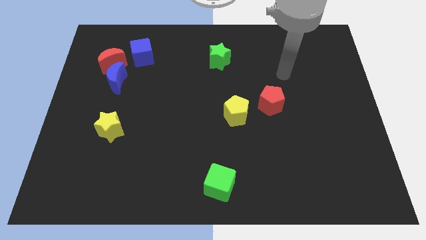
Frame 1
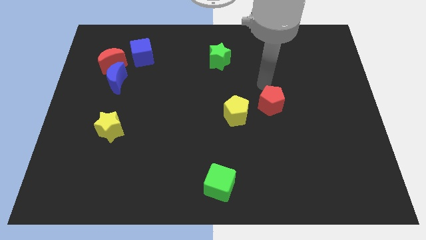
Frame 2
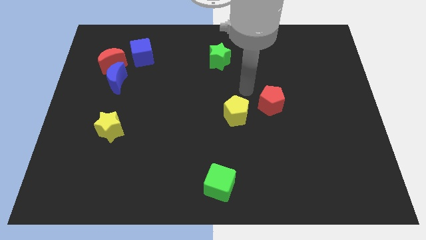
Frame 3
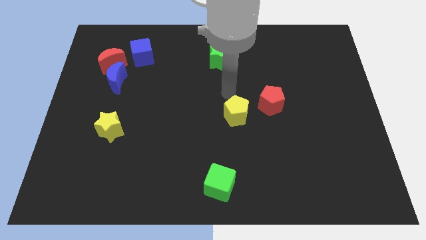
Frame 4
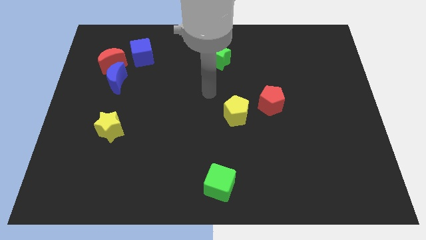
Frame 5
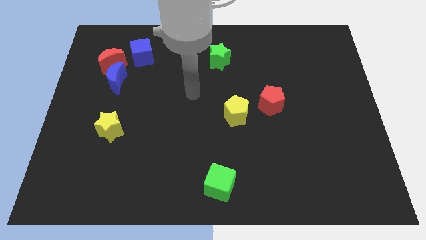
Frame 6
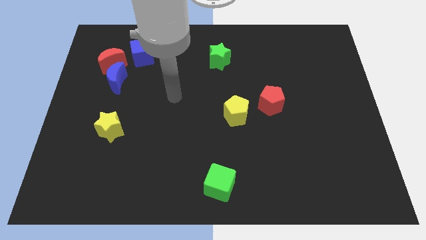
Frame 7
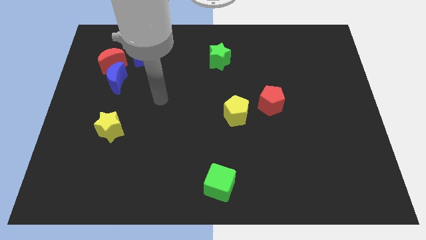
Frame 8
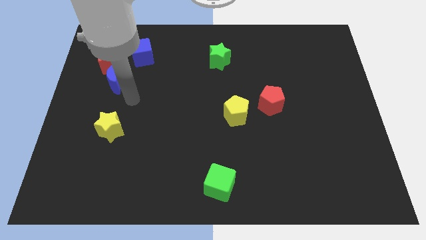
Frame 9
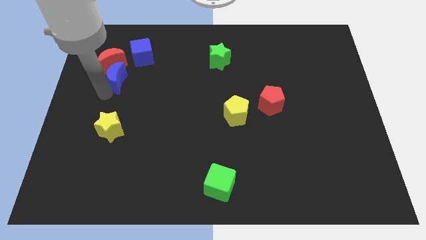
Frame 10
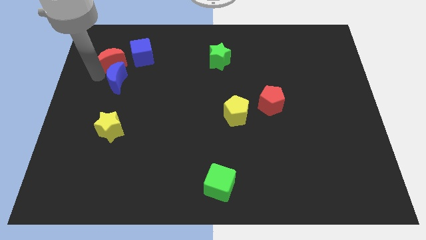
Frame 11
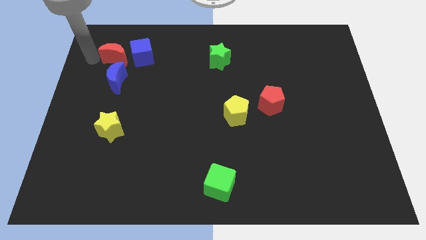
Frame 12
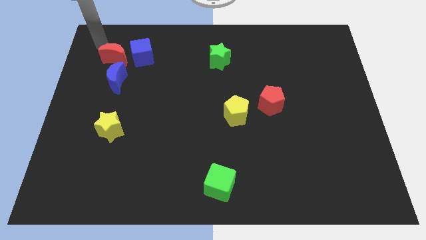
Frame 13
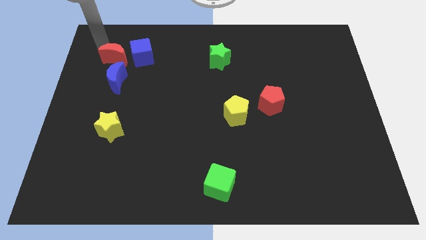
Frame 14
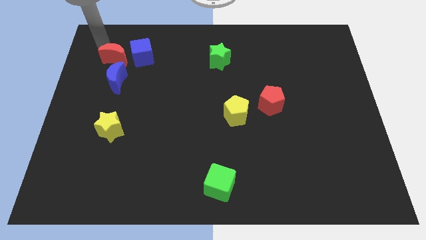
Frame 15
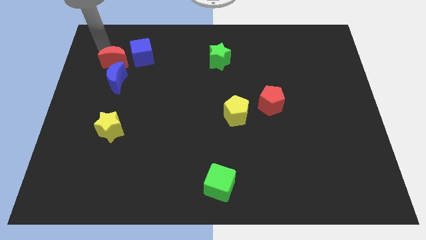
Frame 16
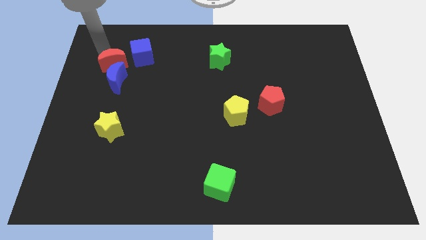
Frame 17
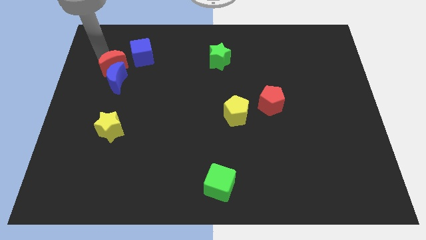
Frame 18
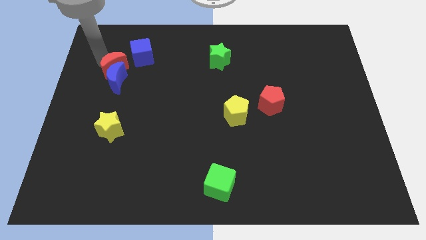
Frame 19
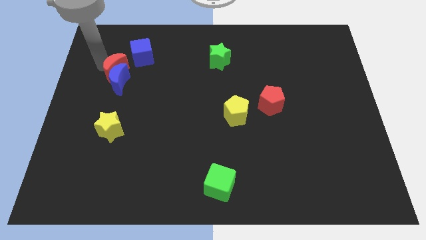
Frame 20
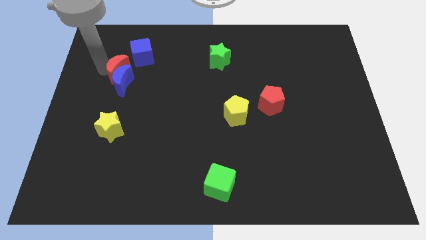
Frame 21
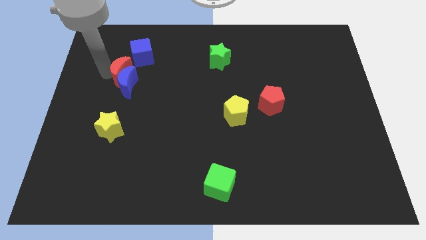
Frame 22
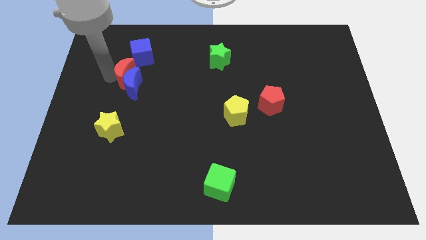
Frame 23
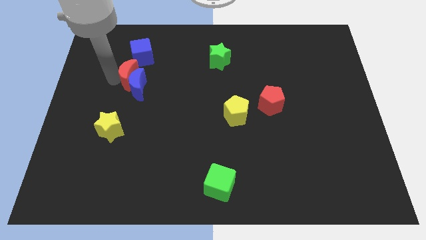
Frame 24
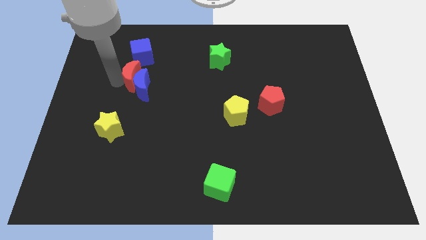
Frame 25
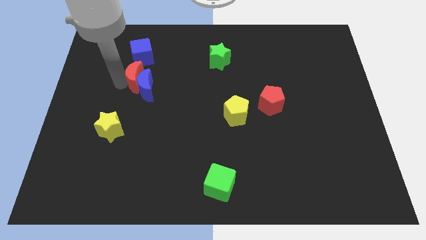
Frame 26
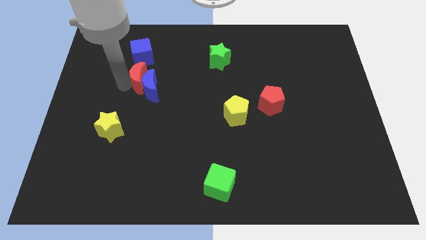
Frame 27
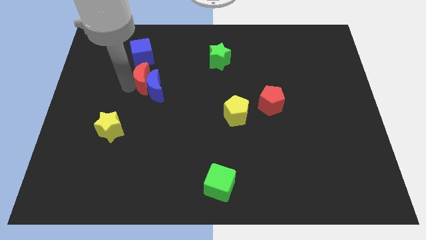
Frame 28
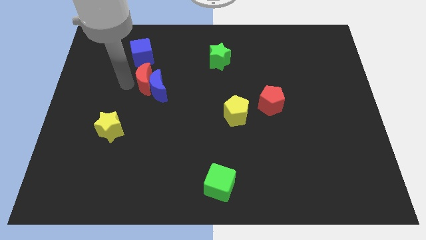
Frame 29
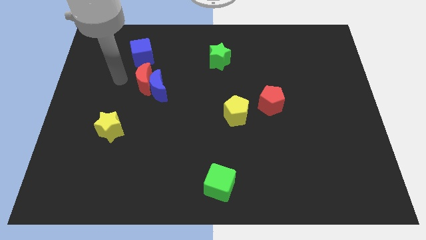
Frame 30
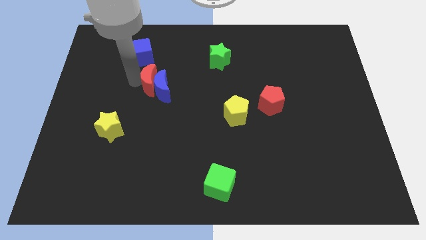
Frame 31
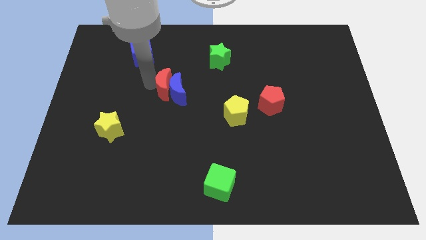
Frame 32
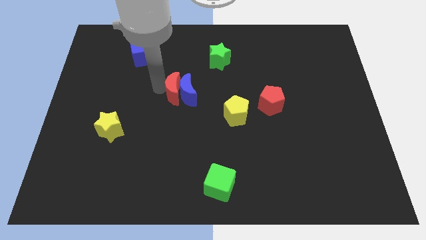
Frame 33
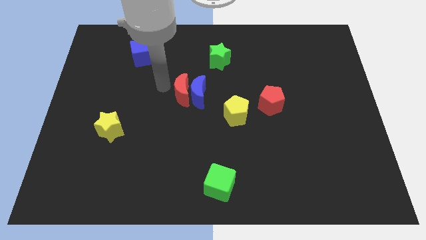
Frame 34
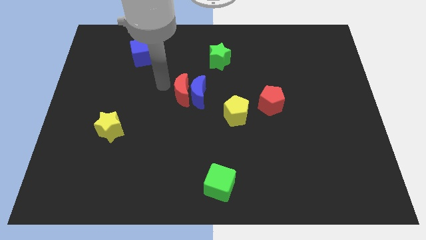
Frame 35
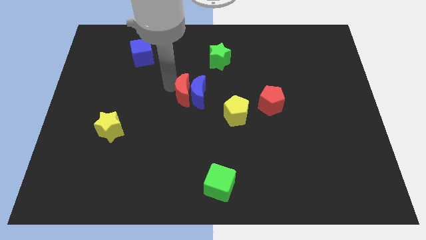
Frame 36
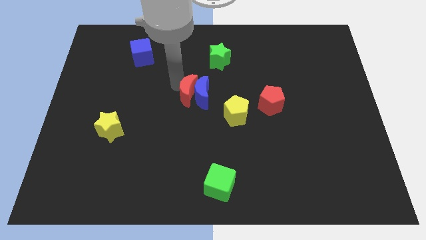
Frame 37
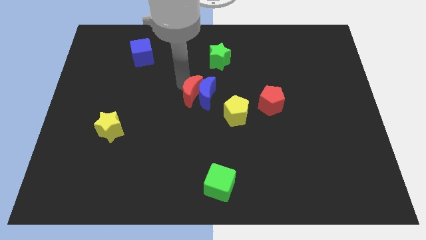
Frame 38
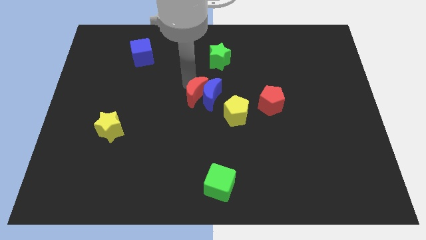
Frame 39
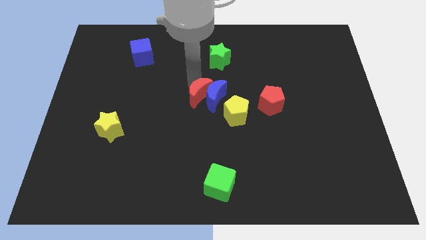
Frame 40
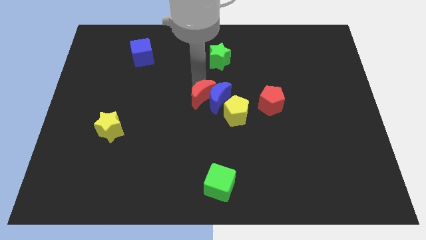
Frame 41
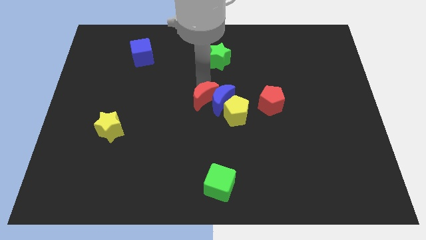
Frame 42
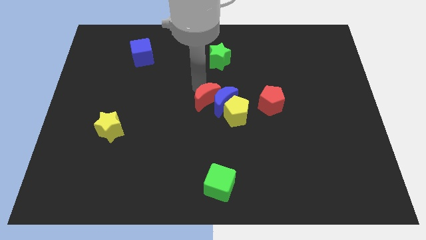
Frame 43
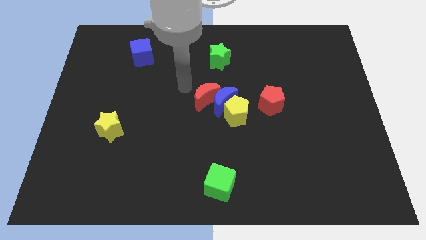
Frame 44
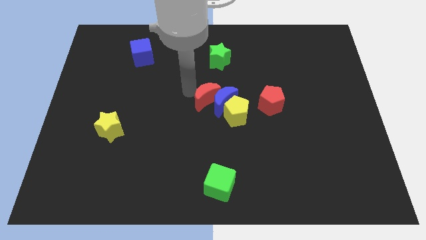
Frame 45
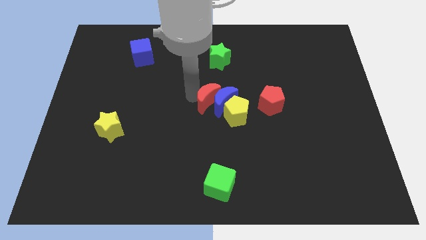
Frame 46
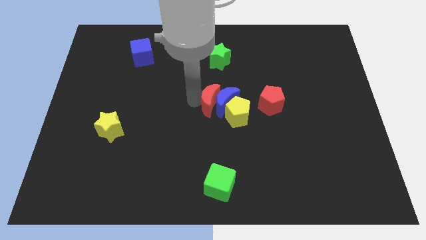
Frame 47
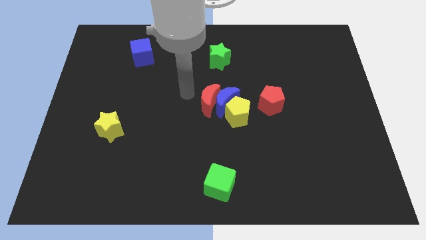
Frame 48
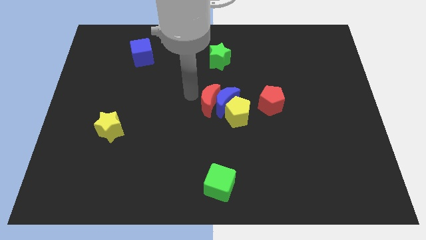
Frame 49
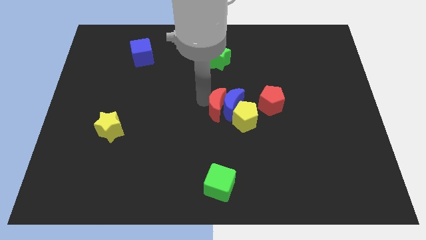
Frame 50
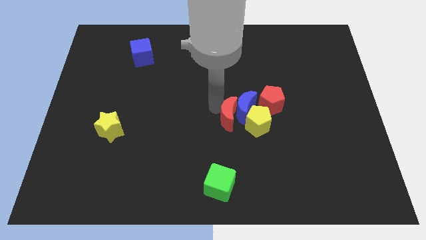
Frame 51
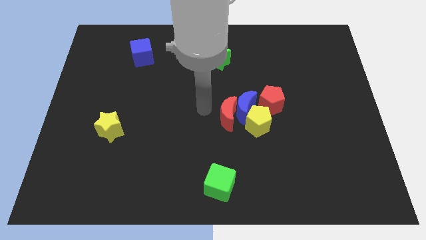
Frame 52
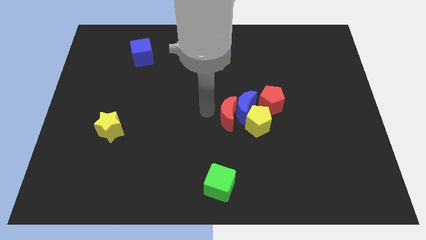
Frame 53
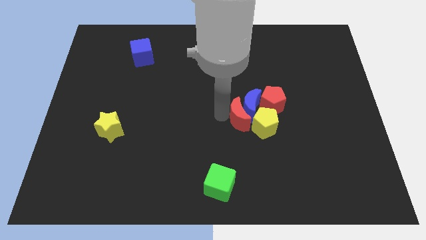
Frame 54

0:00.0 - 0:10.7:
push the red moon towards the yellow pentagon

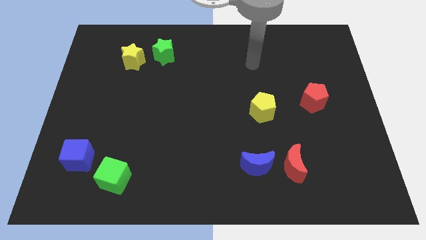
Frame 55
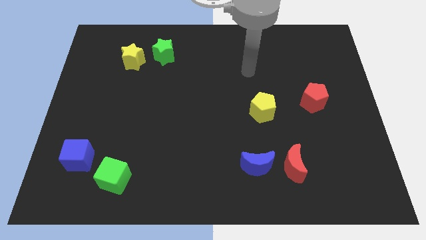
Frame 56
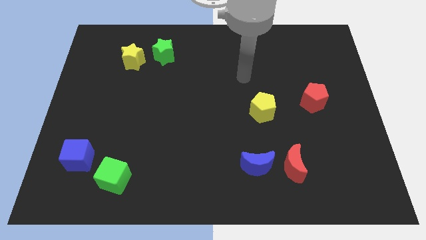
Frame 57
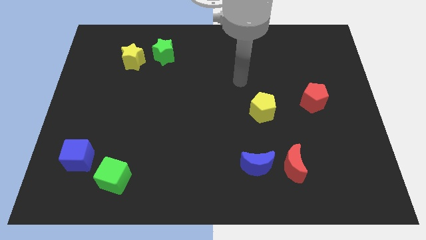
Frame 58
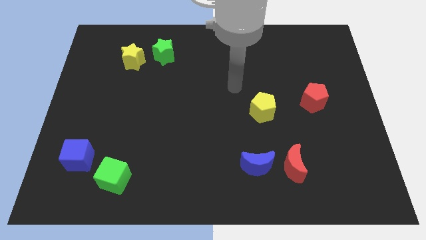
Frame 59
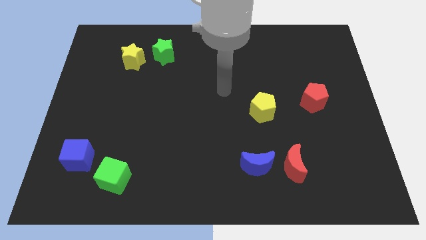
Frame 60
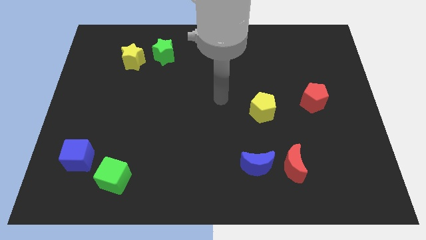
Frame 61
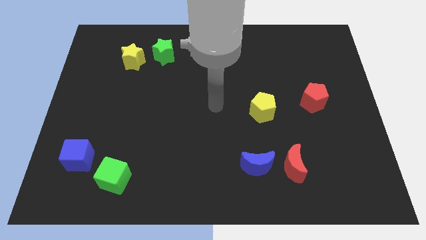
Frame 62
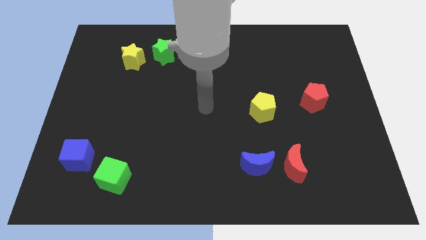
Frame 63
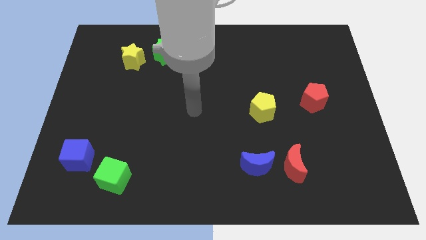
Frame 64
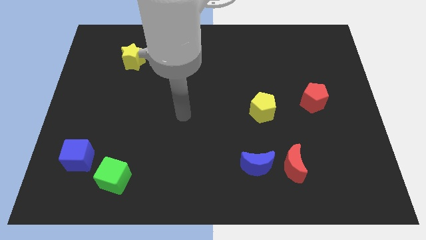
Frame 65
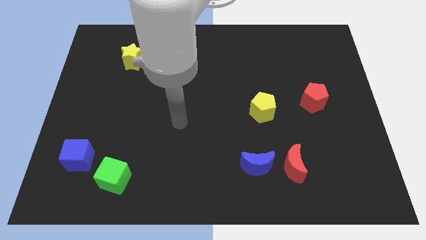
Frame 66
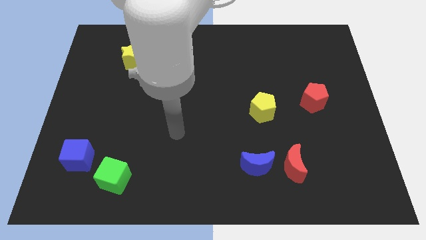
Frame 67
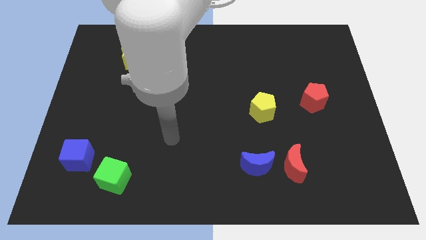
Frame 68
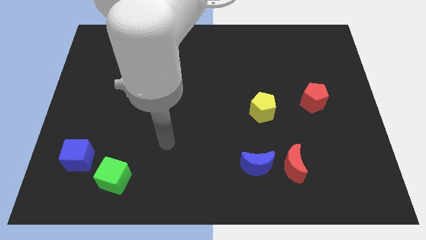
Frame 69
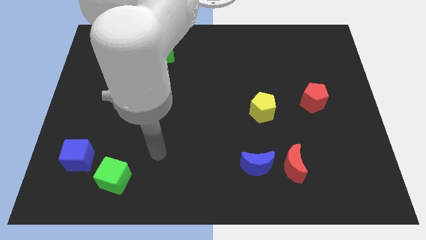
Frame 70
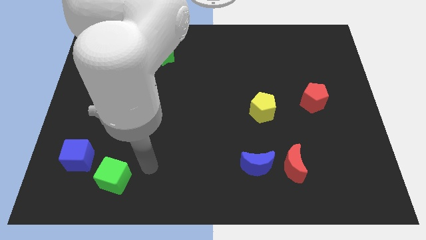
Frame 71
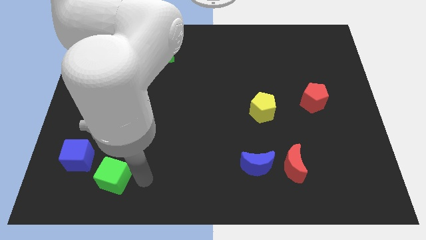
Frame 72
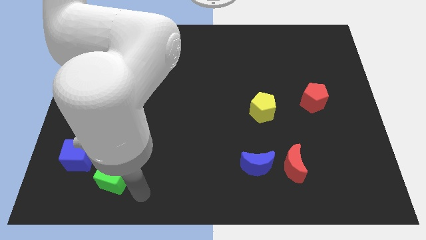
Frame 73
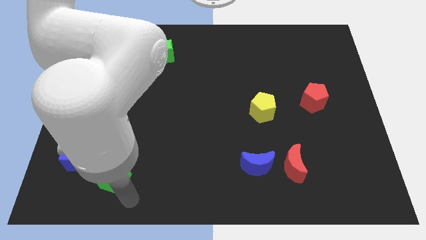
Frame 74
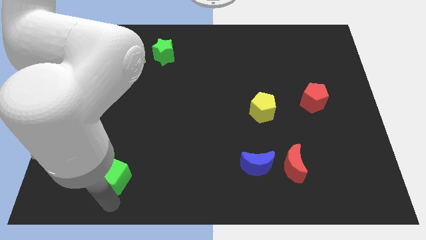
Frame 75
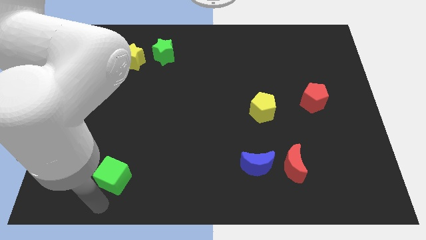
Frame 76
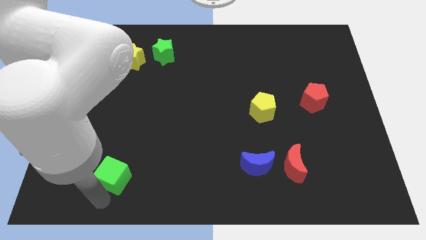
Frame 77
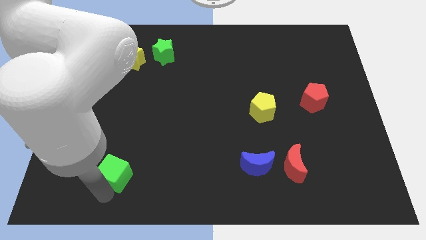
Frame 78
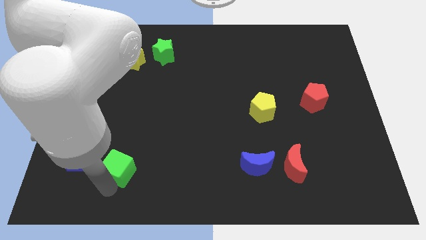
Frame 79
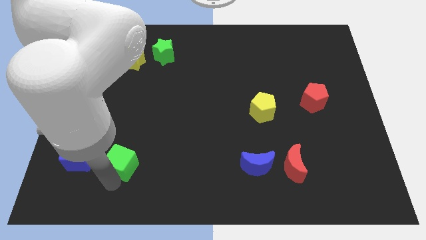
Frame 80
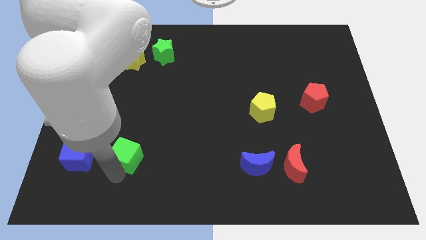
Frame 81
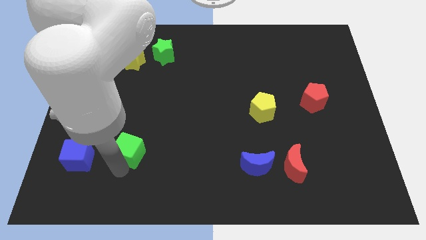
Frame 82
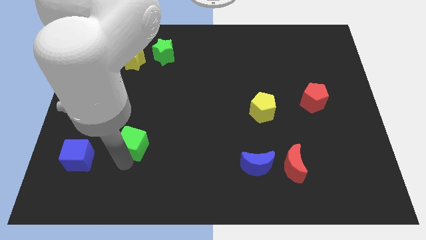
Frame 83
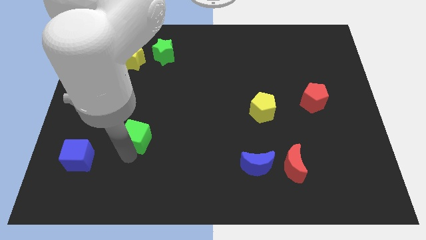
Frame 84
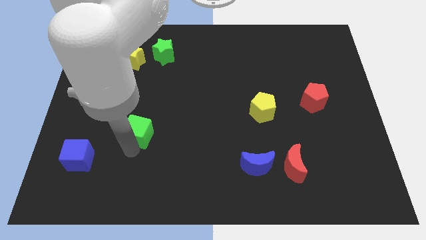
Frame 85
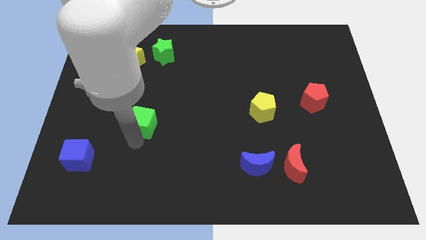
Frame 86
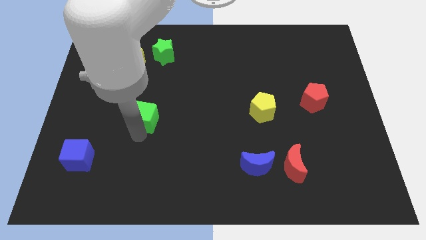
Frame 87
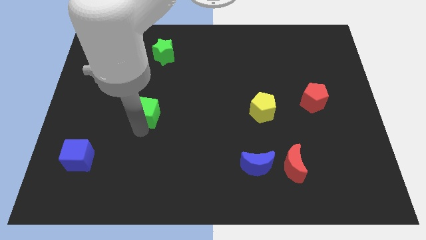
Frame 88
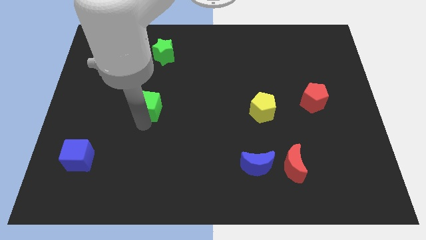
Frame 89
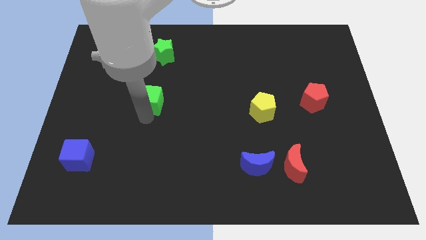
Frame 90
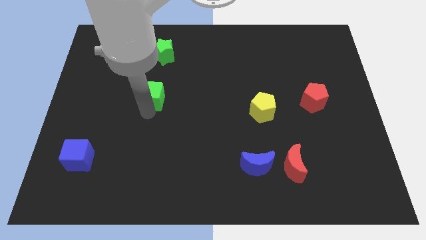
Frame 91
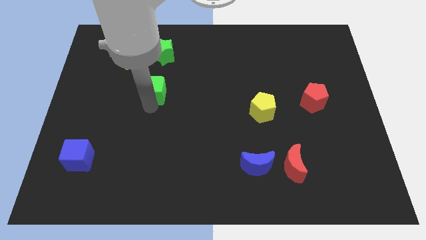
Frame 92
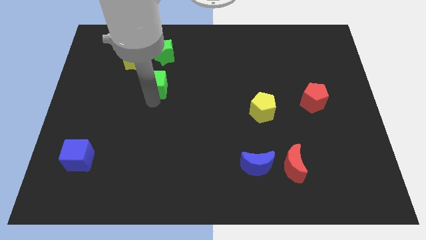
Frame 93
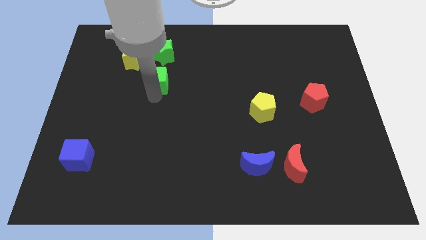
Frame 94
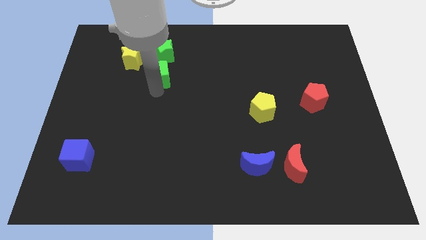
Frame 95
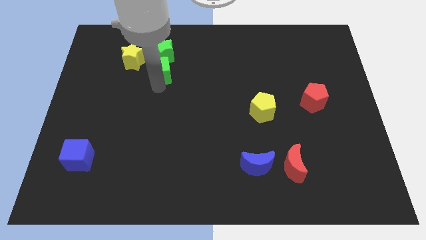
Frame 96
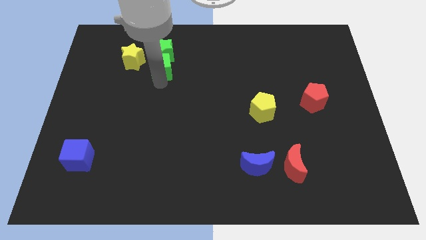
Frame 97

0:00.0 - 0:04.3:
move the green cube to the green star
